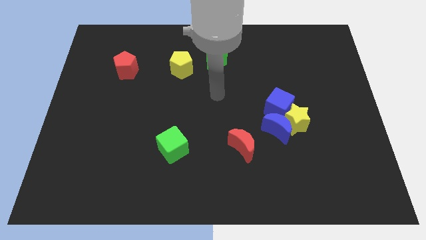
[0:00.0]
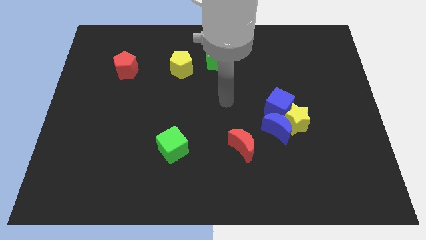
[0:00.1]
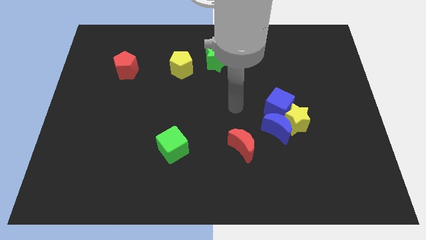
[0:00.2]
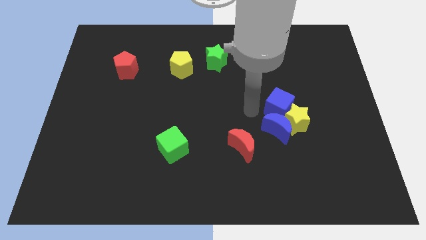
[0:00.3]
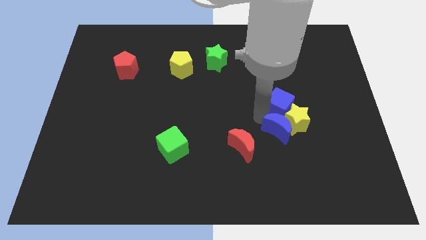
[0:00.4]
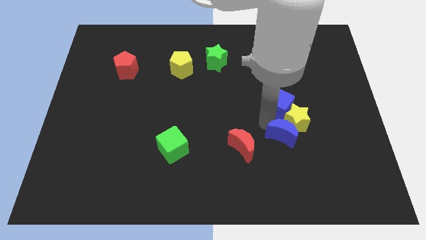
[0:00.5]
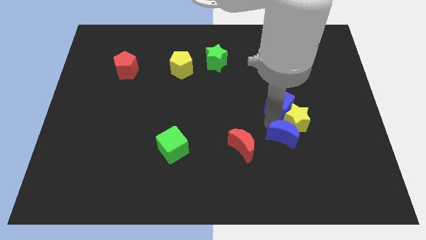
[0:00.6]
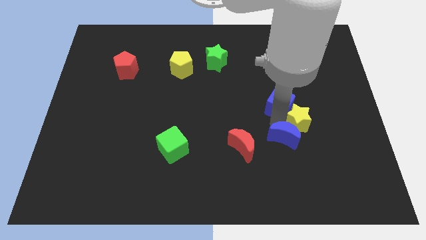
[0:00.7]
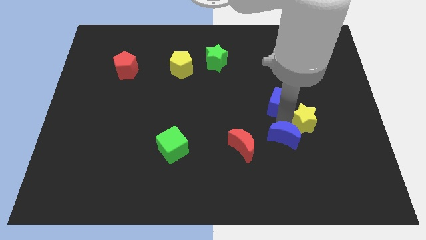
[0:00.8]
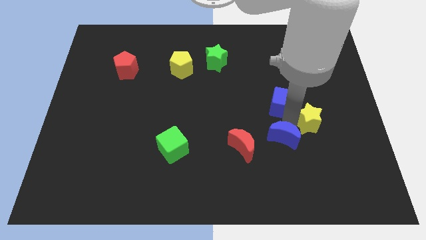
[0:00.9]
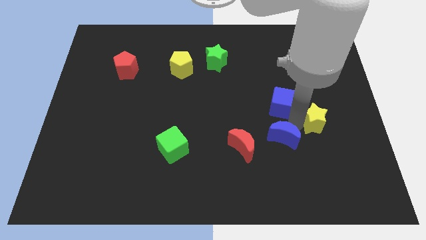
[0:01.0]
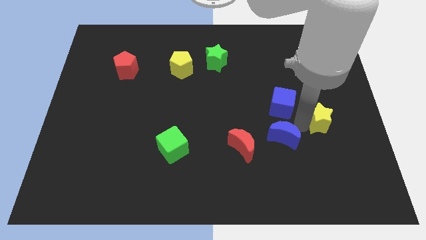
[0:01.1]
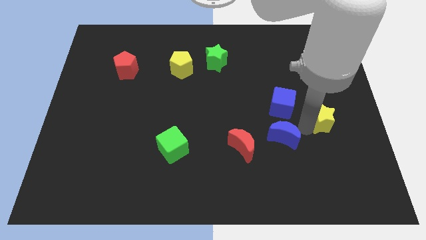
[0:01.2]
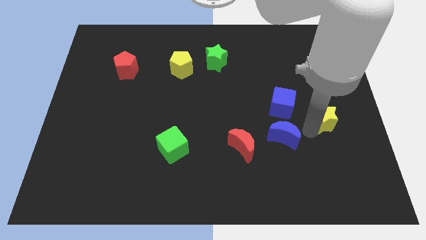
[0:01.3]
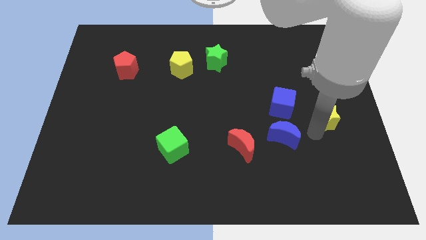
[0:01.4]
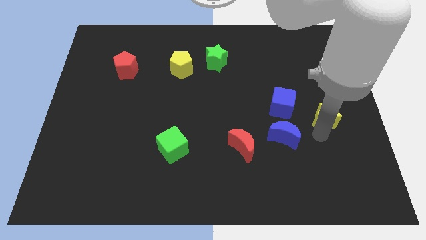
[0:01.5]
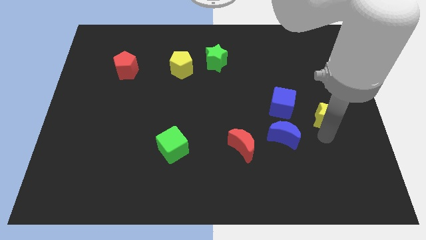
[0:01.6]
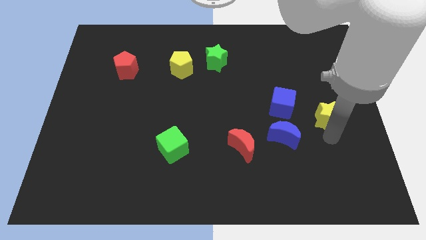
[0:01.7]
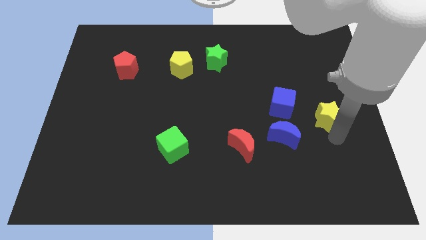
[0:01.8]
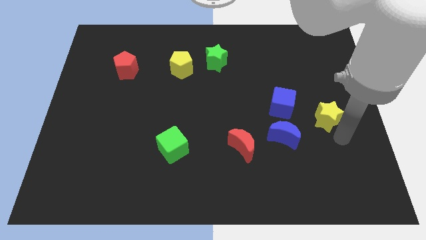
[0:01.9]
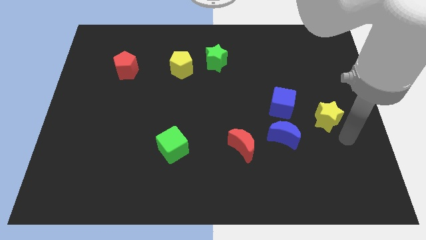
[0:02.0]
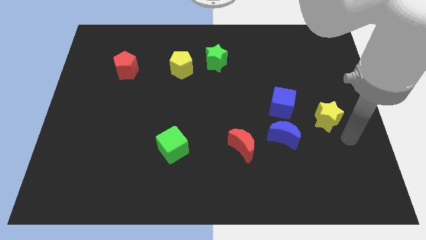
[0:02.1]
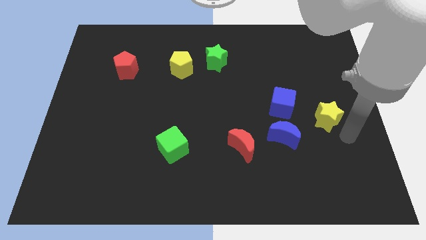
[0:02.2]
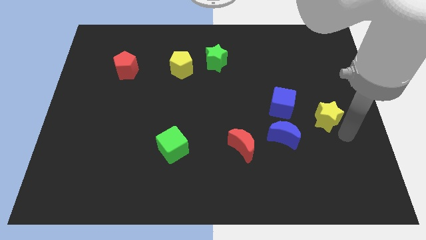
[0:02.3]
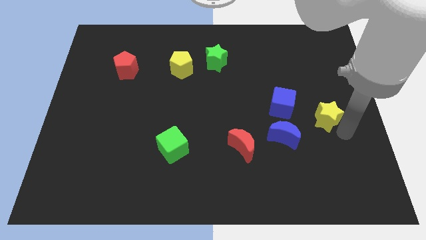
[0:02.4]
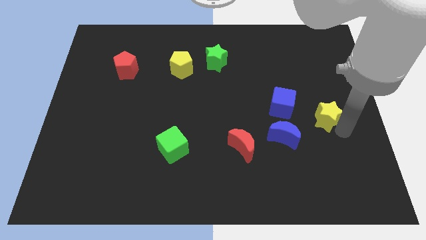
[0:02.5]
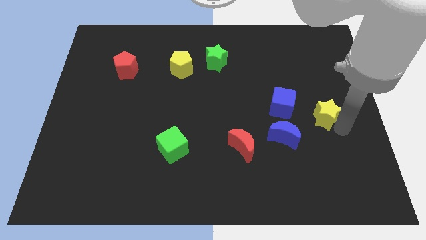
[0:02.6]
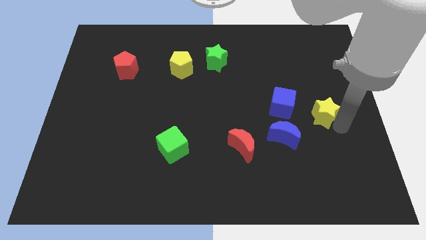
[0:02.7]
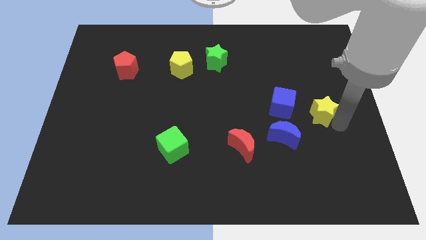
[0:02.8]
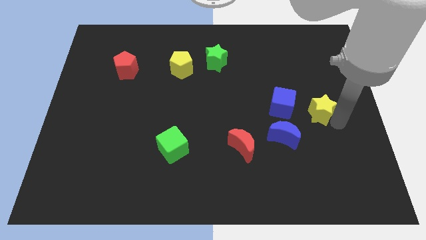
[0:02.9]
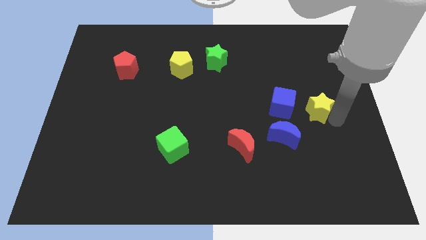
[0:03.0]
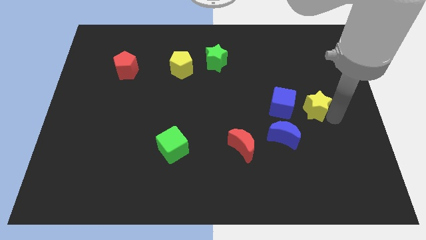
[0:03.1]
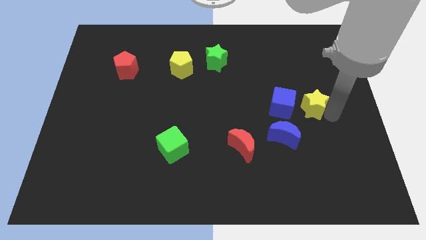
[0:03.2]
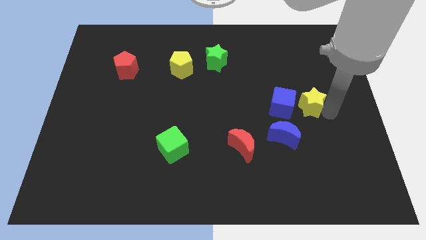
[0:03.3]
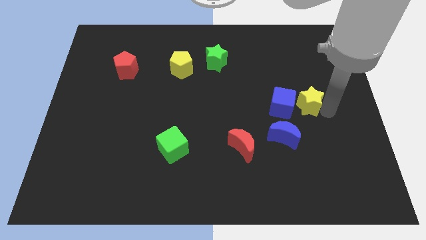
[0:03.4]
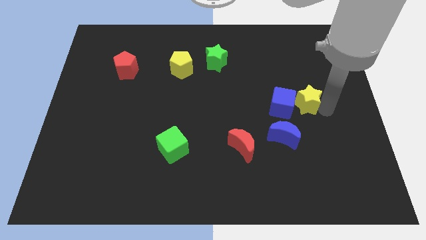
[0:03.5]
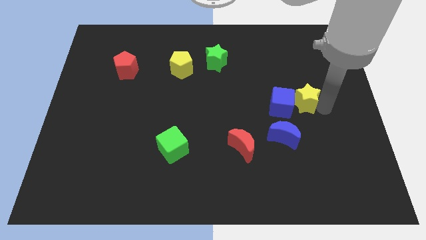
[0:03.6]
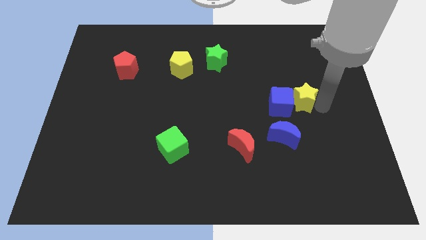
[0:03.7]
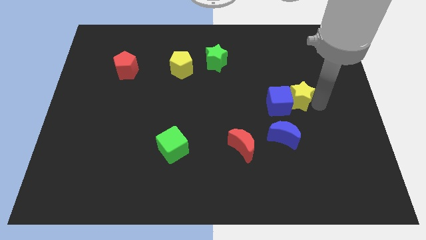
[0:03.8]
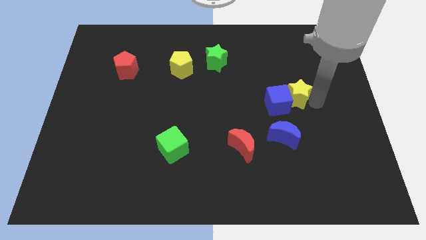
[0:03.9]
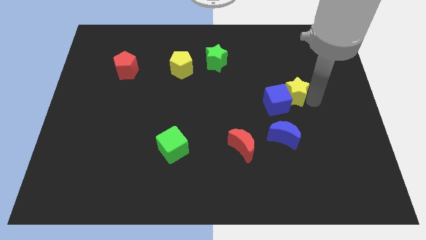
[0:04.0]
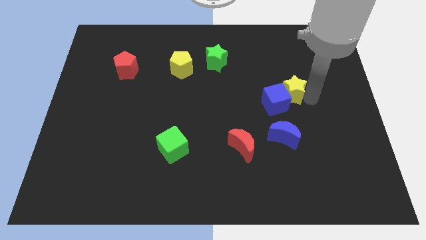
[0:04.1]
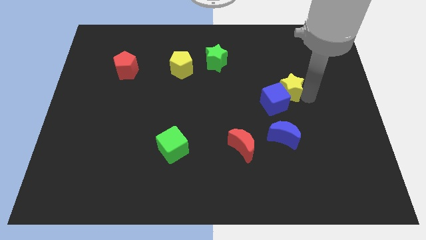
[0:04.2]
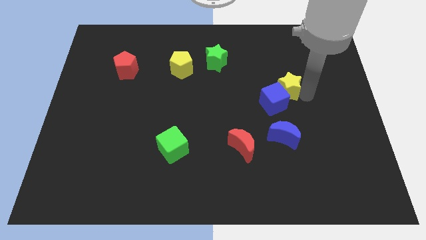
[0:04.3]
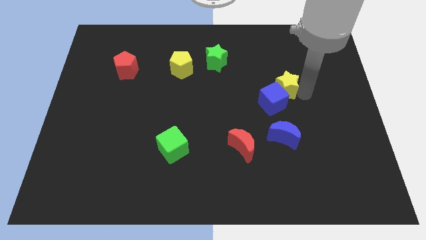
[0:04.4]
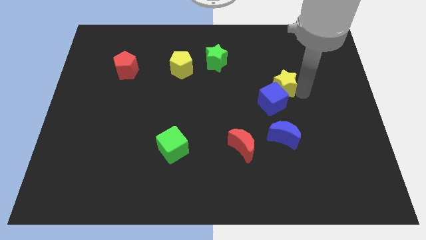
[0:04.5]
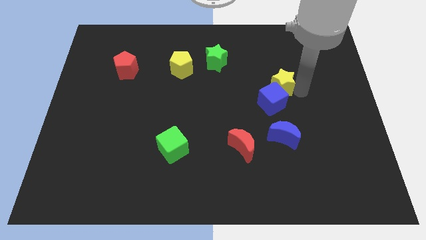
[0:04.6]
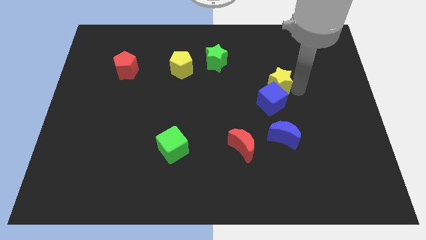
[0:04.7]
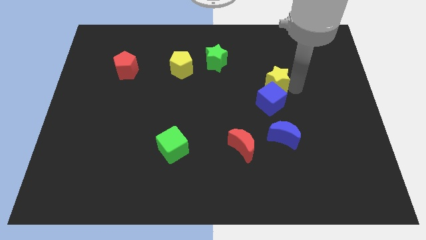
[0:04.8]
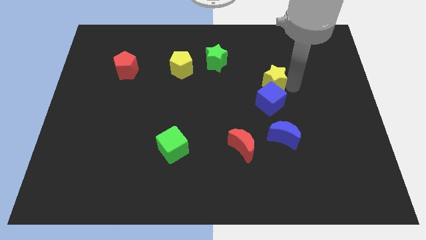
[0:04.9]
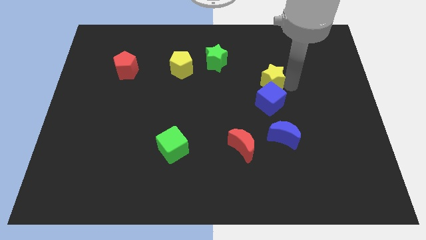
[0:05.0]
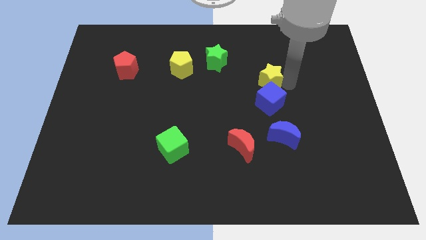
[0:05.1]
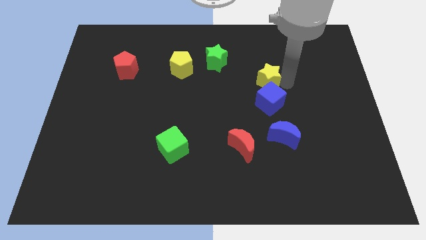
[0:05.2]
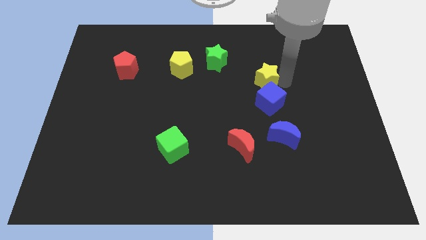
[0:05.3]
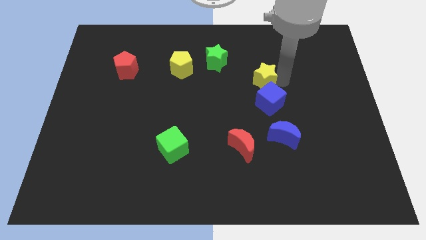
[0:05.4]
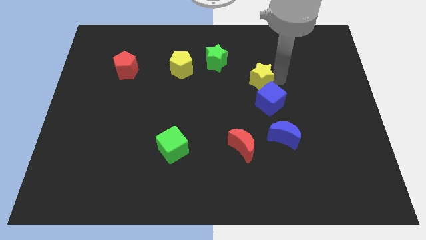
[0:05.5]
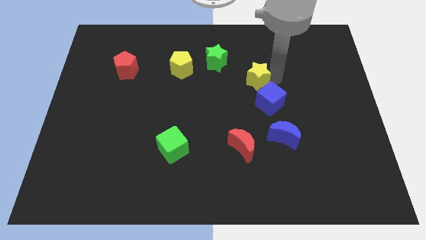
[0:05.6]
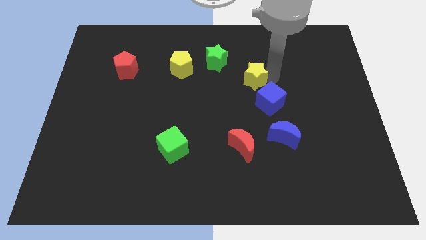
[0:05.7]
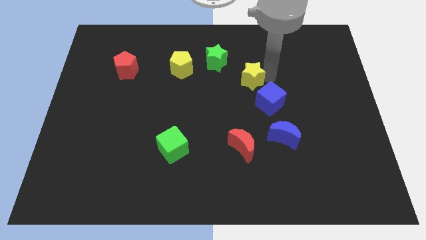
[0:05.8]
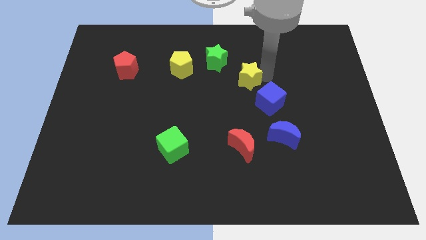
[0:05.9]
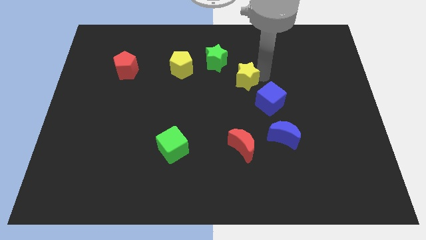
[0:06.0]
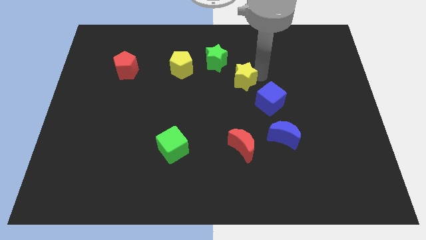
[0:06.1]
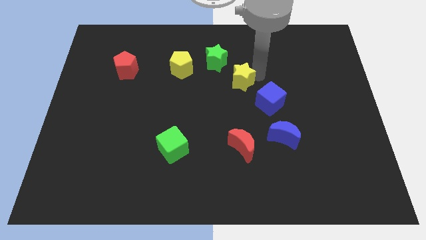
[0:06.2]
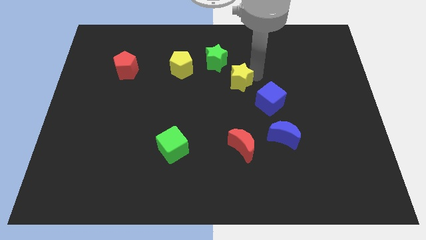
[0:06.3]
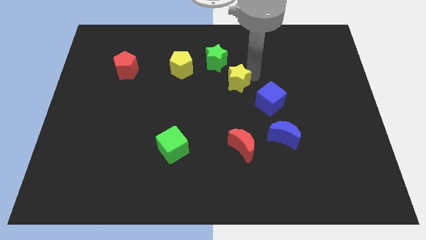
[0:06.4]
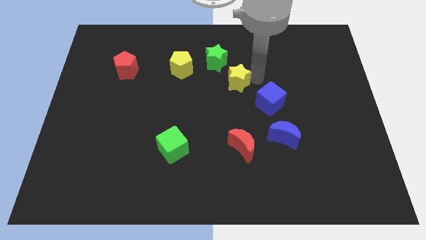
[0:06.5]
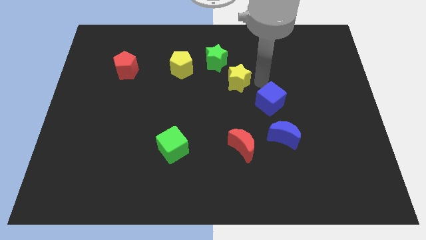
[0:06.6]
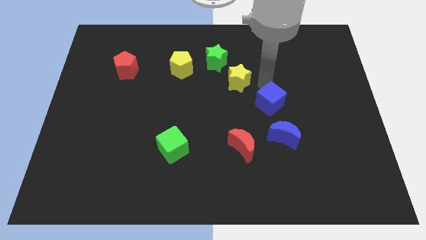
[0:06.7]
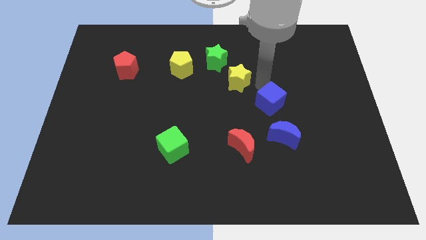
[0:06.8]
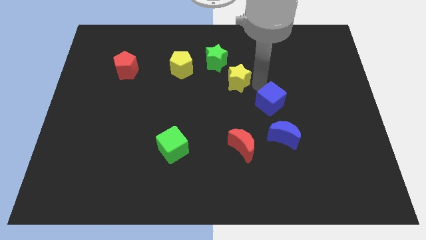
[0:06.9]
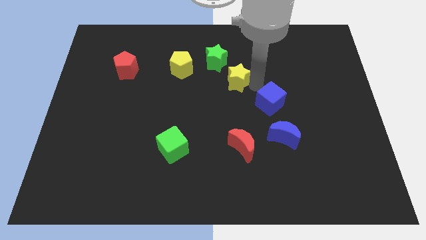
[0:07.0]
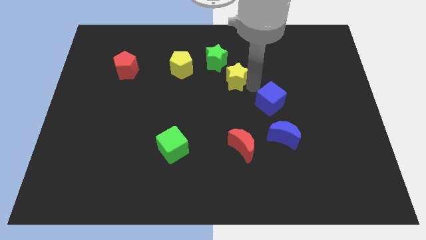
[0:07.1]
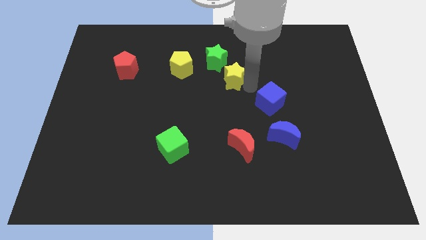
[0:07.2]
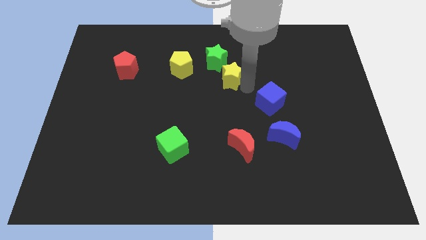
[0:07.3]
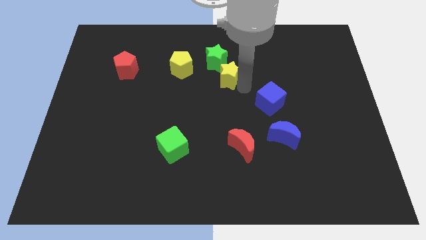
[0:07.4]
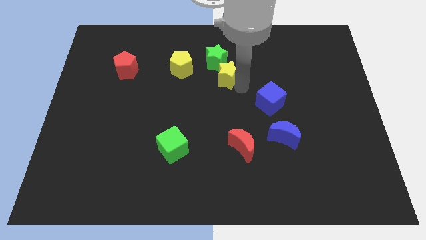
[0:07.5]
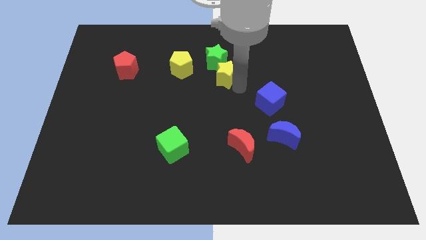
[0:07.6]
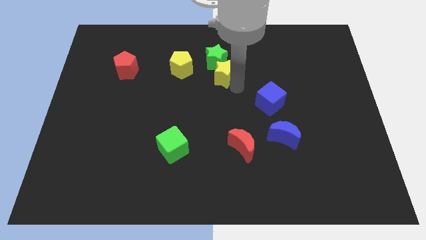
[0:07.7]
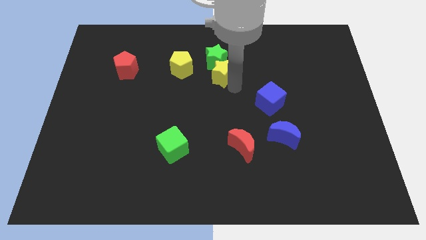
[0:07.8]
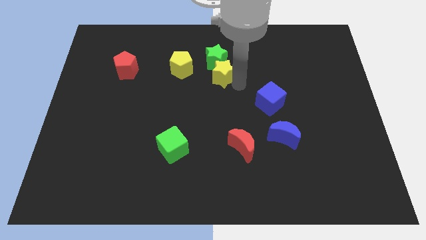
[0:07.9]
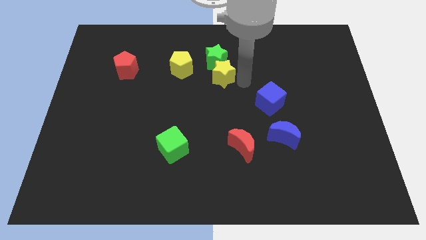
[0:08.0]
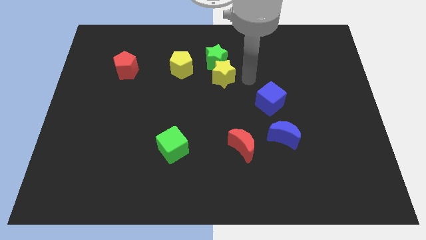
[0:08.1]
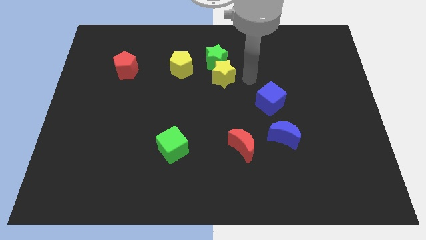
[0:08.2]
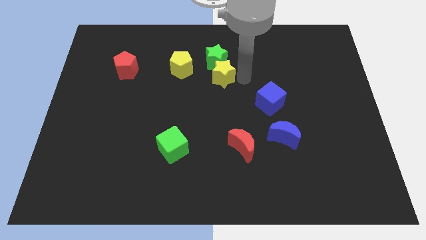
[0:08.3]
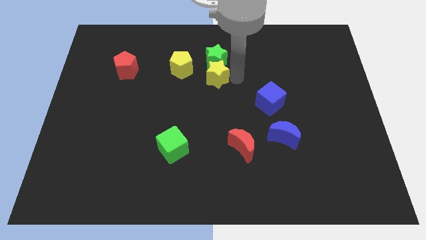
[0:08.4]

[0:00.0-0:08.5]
put the yellow star to the bottom left of the green star
